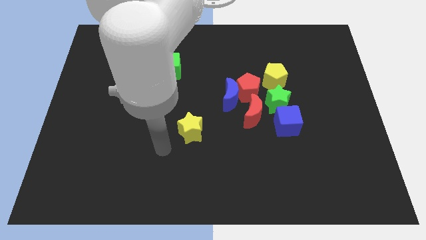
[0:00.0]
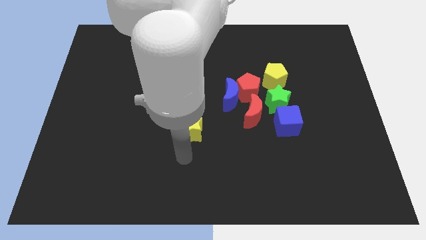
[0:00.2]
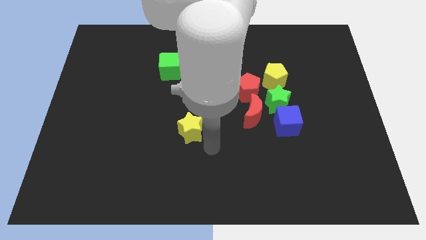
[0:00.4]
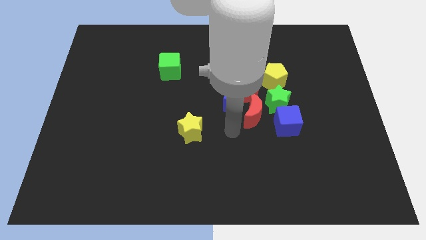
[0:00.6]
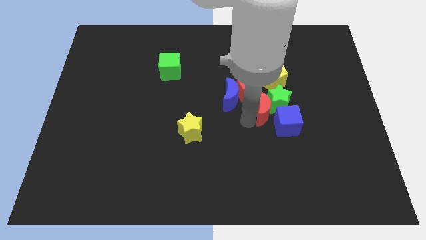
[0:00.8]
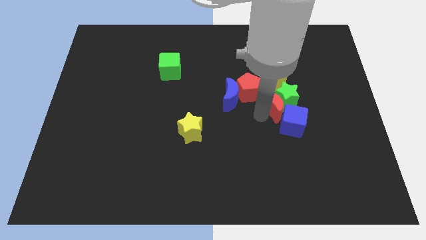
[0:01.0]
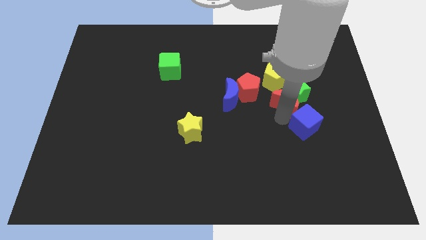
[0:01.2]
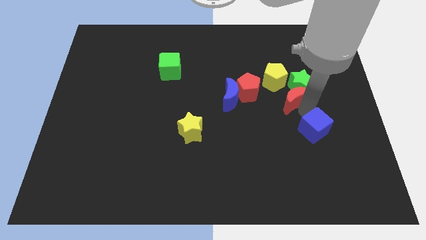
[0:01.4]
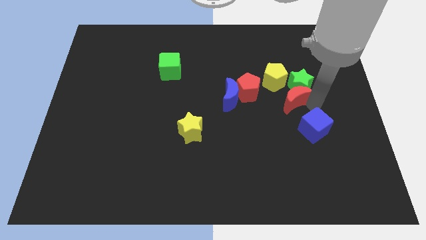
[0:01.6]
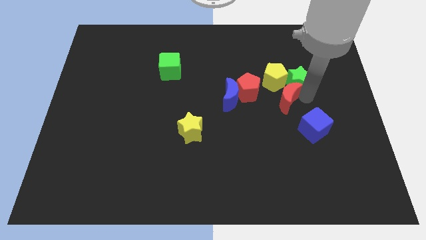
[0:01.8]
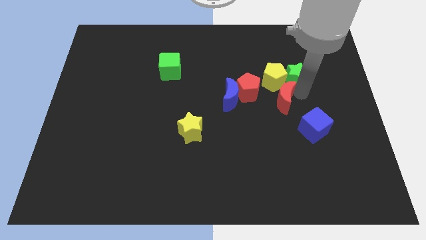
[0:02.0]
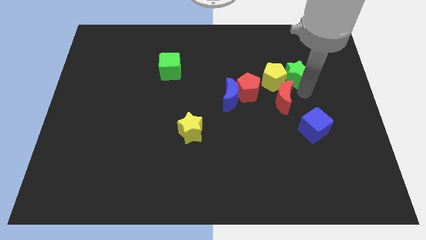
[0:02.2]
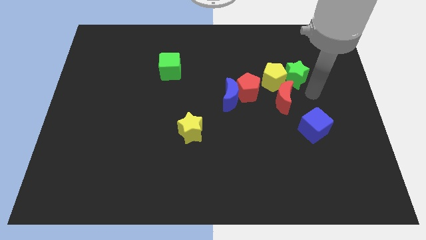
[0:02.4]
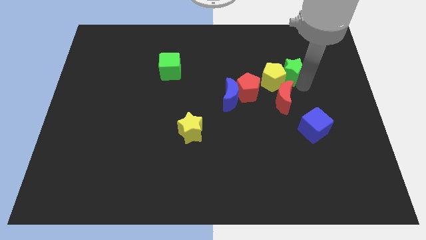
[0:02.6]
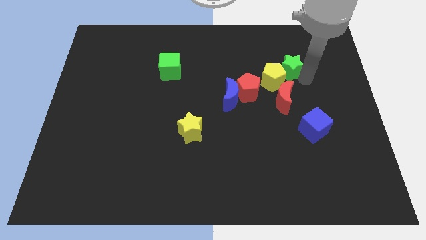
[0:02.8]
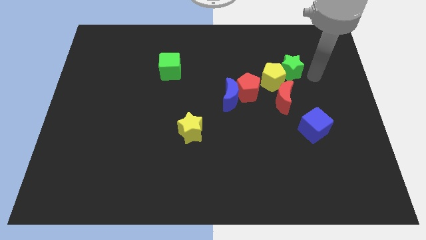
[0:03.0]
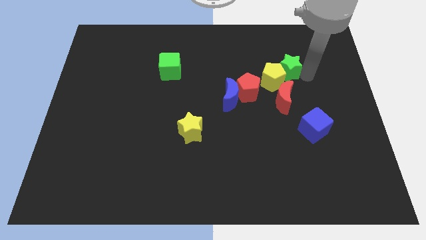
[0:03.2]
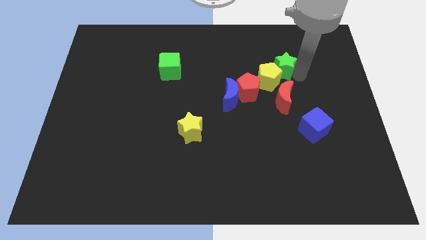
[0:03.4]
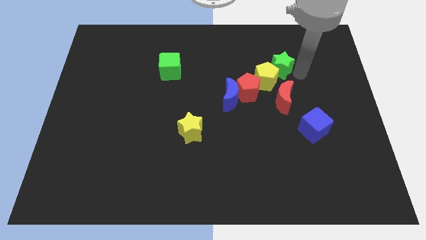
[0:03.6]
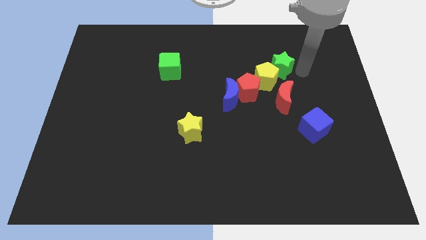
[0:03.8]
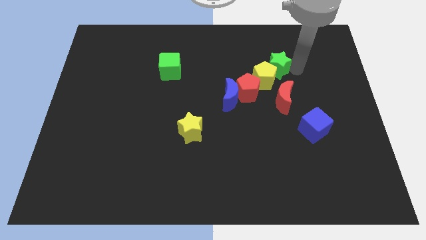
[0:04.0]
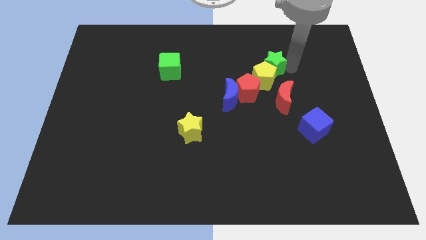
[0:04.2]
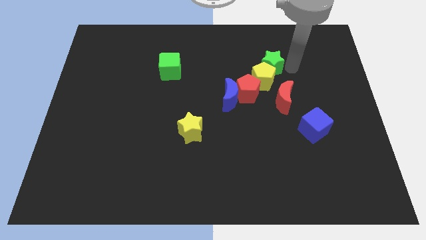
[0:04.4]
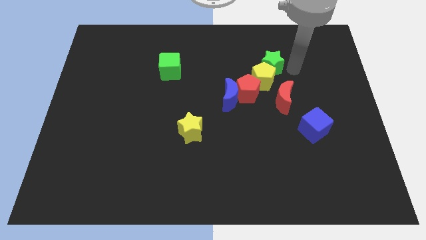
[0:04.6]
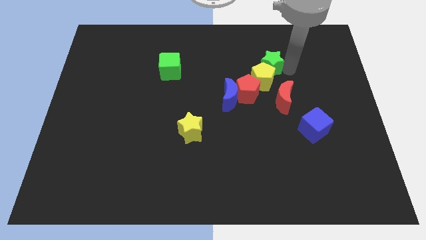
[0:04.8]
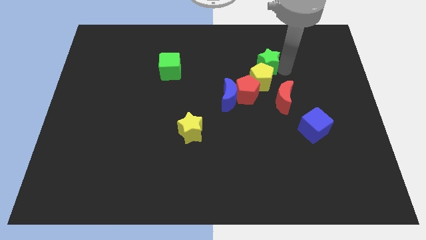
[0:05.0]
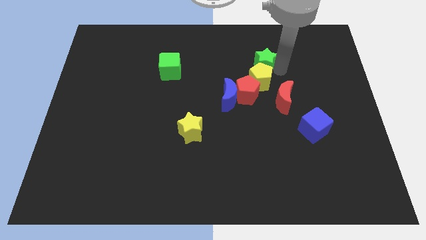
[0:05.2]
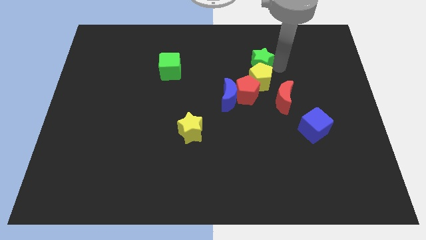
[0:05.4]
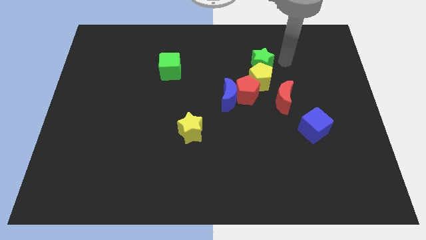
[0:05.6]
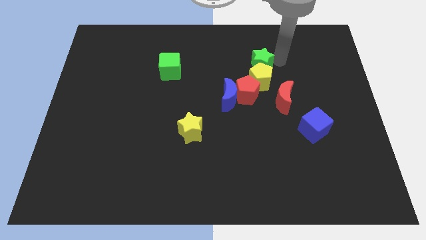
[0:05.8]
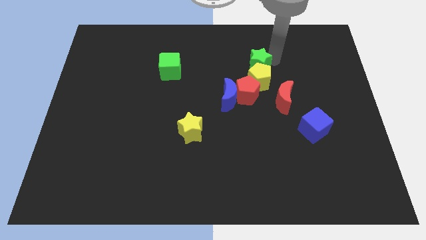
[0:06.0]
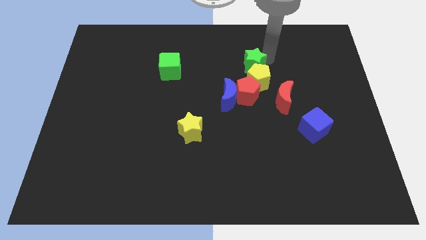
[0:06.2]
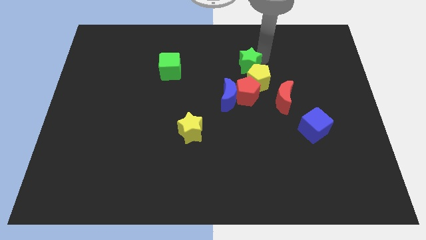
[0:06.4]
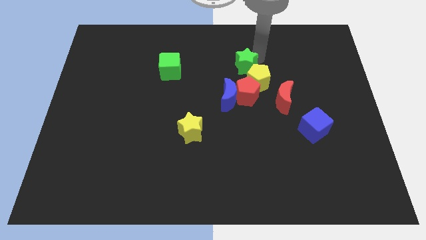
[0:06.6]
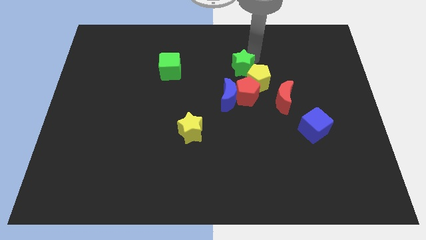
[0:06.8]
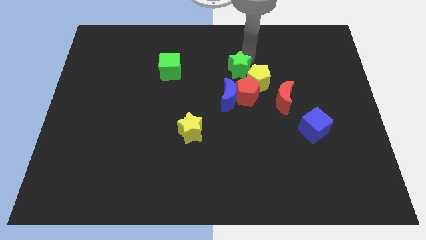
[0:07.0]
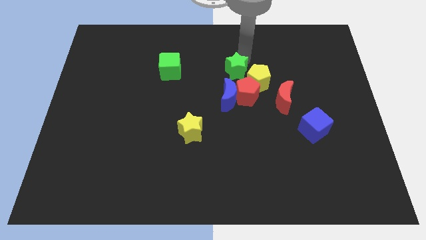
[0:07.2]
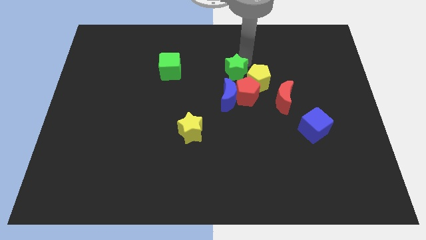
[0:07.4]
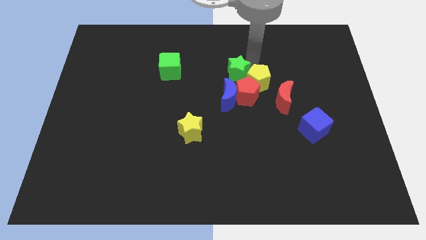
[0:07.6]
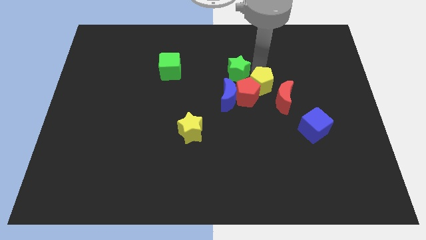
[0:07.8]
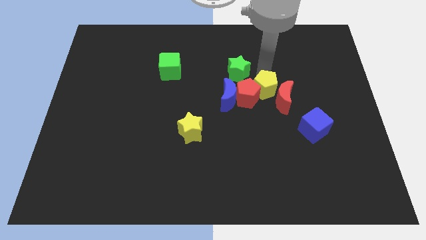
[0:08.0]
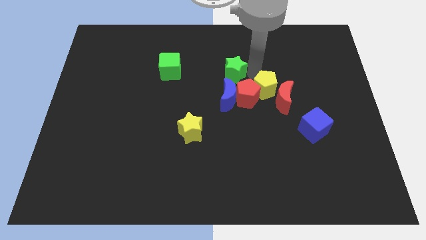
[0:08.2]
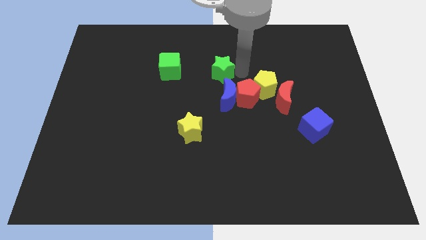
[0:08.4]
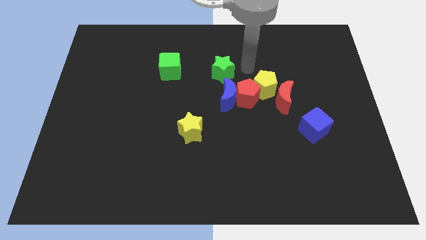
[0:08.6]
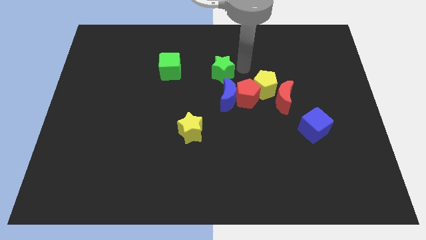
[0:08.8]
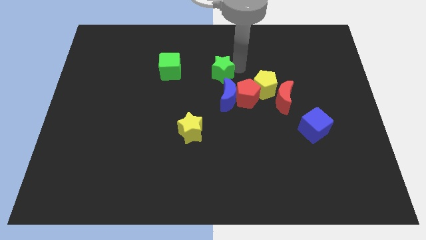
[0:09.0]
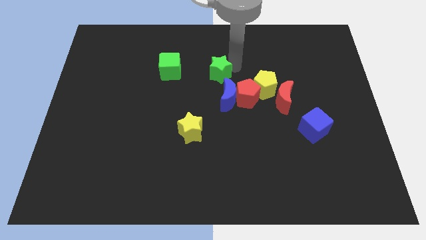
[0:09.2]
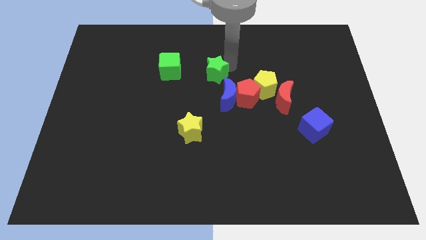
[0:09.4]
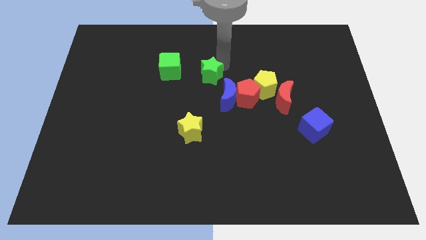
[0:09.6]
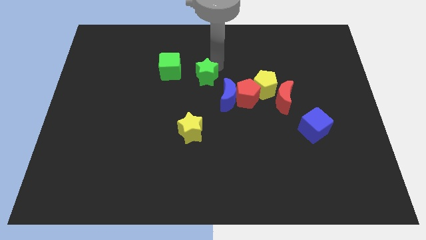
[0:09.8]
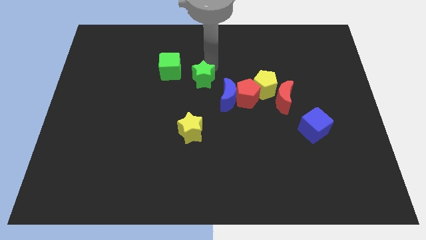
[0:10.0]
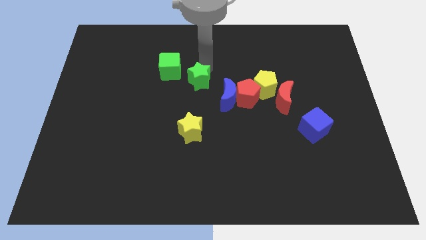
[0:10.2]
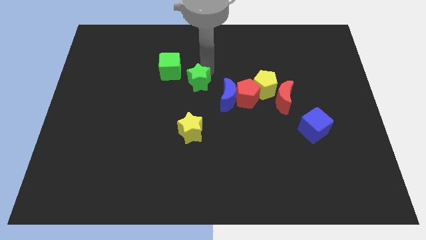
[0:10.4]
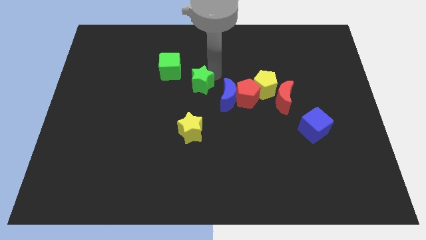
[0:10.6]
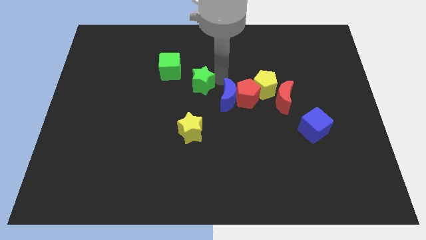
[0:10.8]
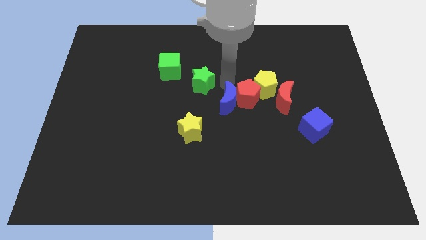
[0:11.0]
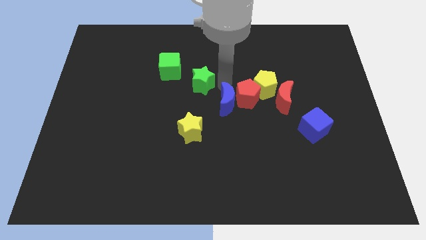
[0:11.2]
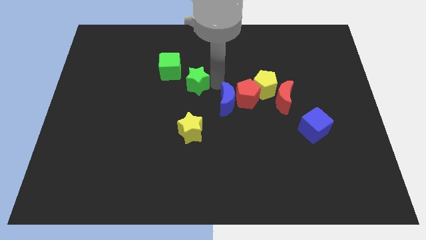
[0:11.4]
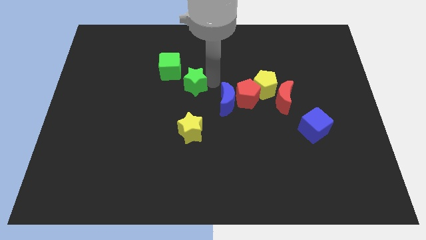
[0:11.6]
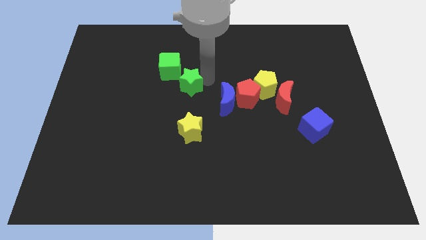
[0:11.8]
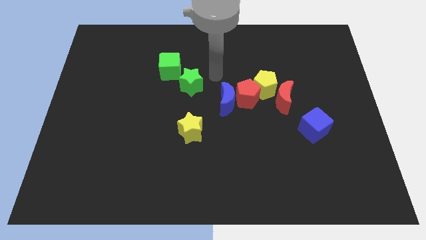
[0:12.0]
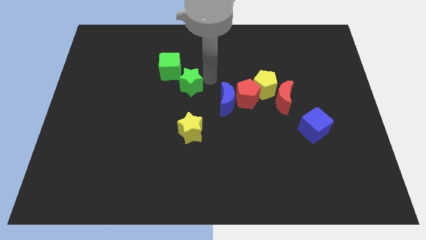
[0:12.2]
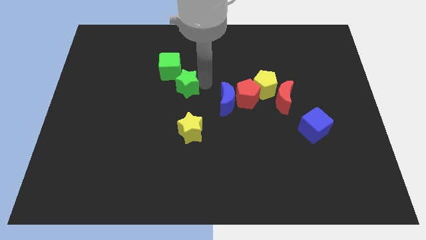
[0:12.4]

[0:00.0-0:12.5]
push the green star to the left

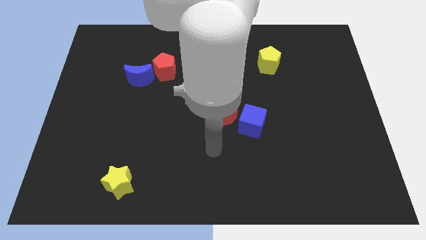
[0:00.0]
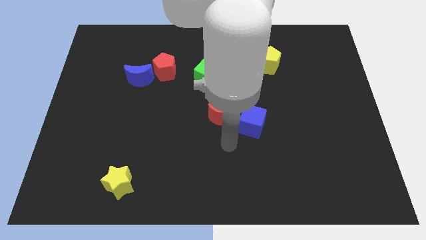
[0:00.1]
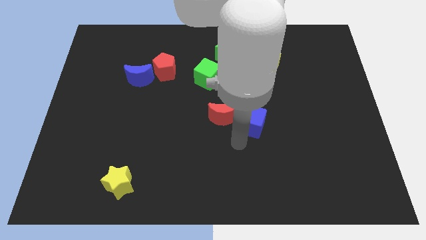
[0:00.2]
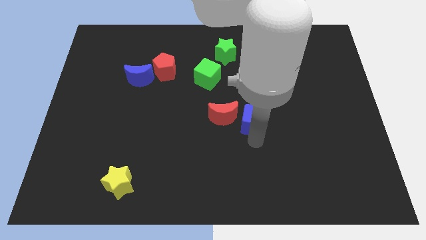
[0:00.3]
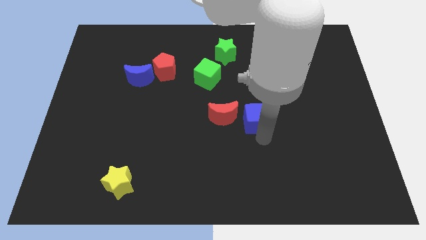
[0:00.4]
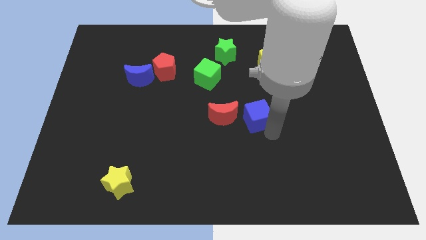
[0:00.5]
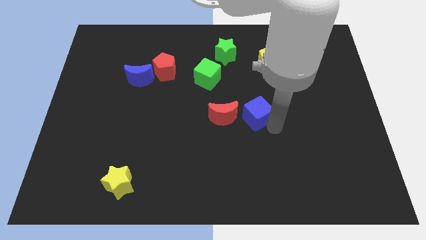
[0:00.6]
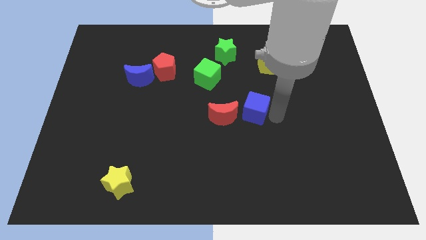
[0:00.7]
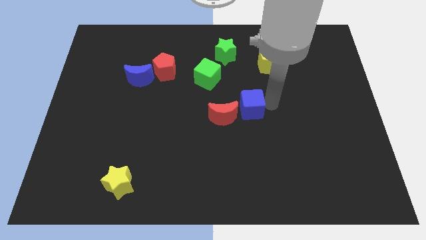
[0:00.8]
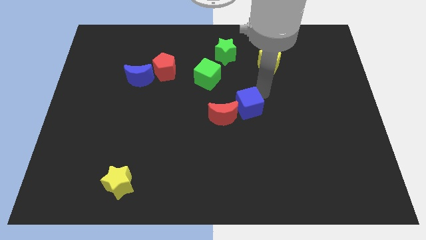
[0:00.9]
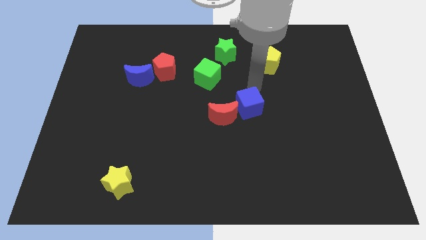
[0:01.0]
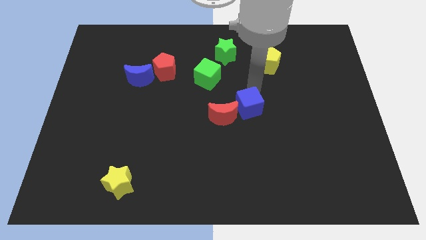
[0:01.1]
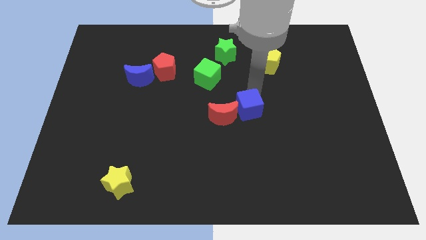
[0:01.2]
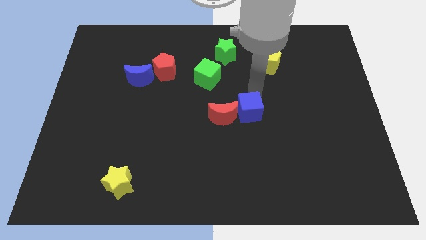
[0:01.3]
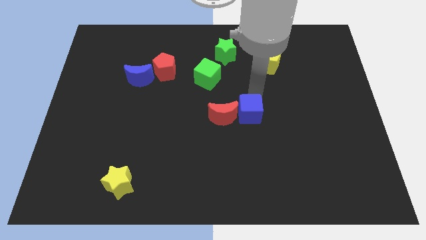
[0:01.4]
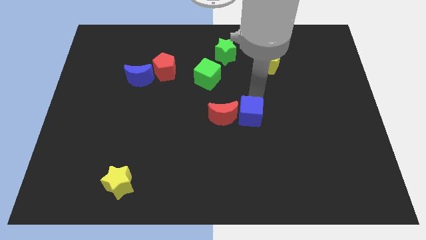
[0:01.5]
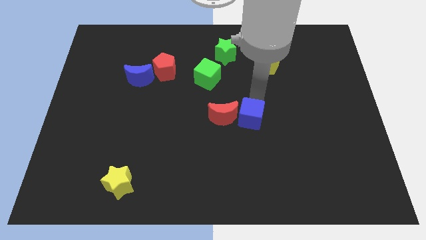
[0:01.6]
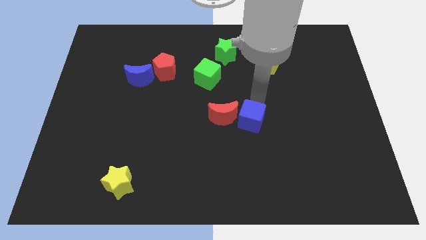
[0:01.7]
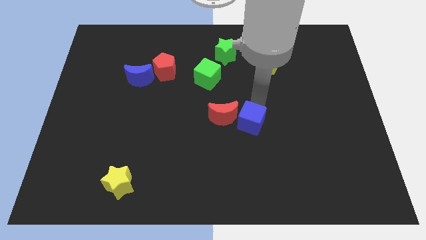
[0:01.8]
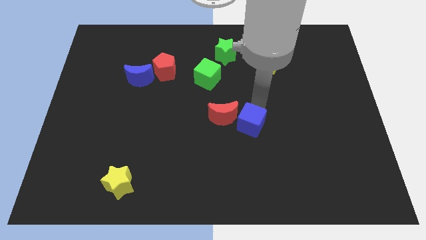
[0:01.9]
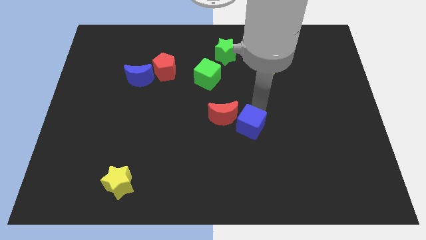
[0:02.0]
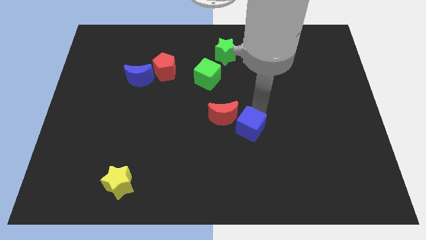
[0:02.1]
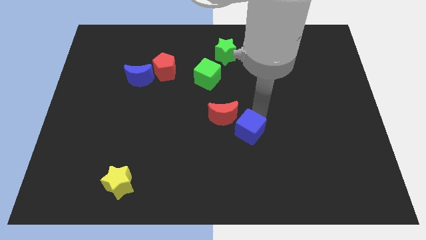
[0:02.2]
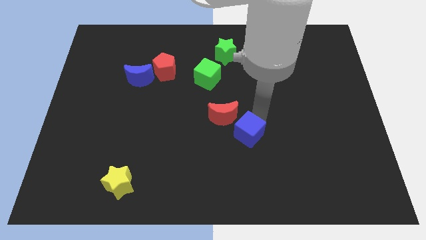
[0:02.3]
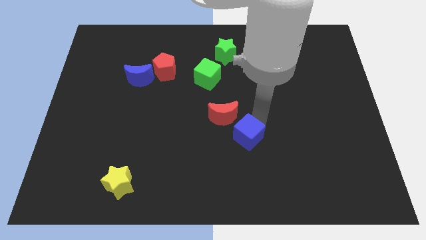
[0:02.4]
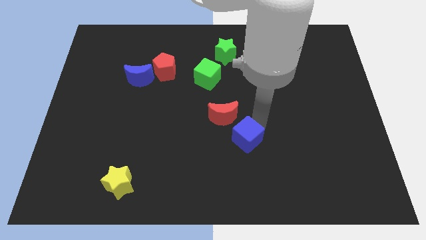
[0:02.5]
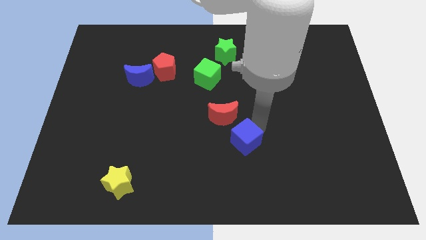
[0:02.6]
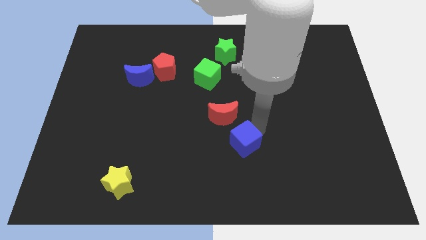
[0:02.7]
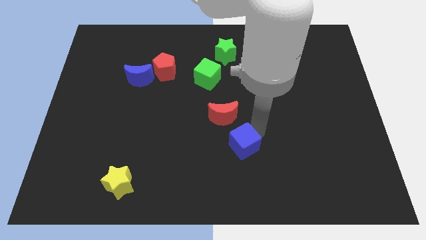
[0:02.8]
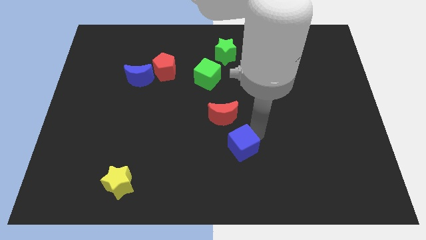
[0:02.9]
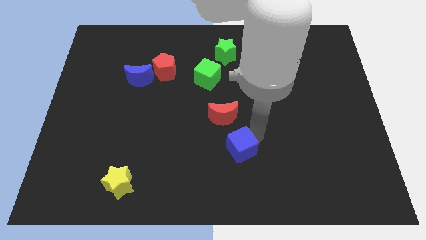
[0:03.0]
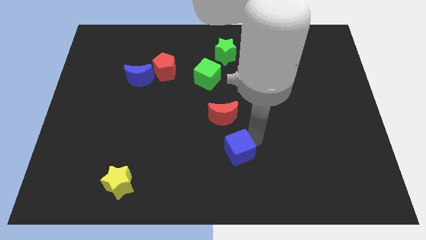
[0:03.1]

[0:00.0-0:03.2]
push the blue cube down and left diagonally a little bit
